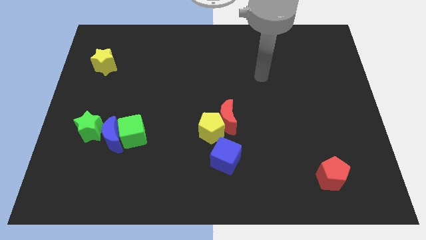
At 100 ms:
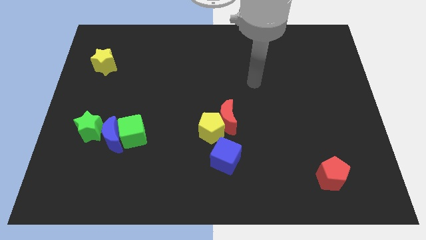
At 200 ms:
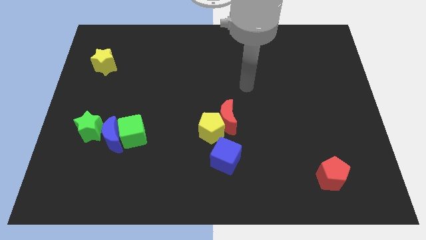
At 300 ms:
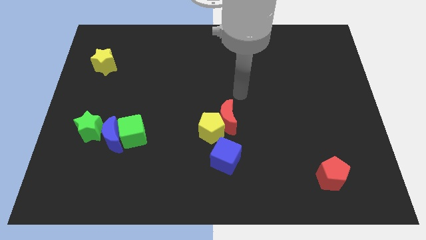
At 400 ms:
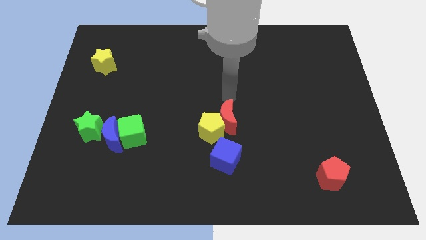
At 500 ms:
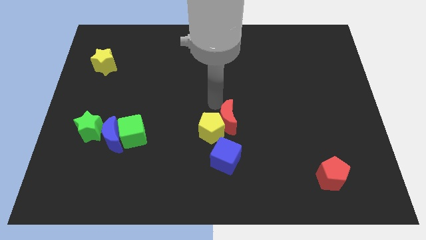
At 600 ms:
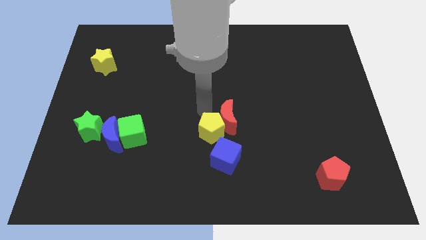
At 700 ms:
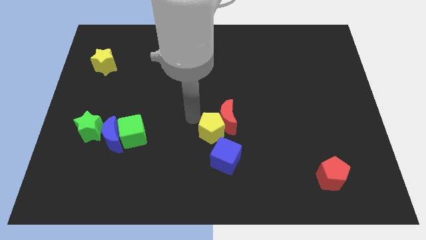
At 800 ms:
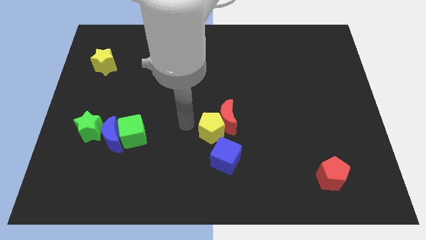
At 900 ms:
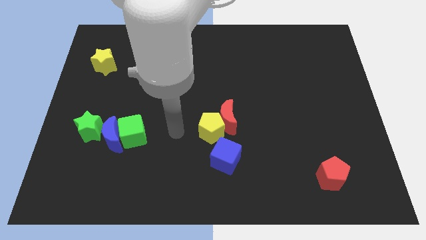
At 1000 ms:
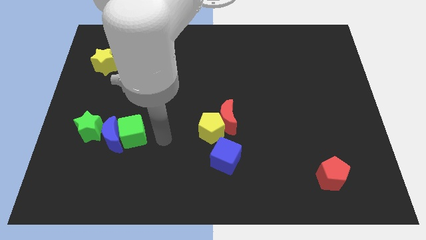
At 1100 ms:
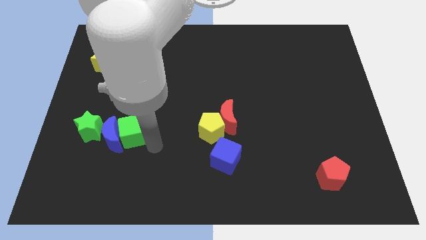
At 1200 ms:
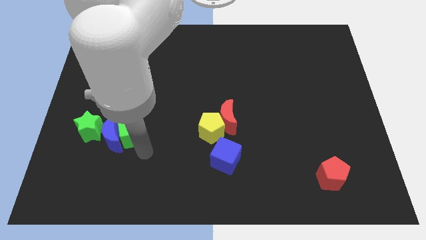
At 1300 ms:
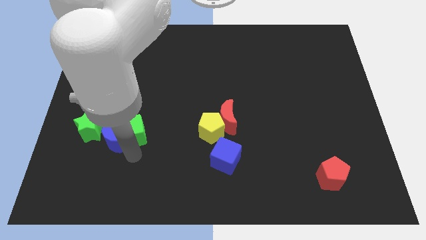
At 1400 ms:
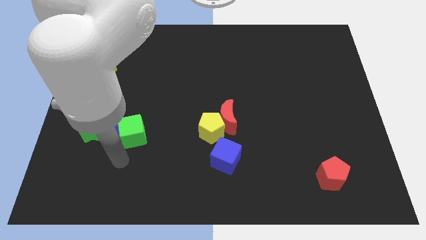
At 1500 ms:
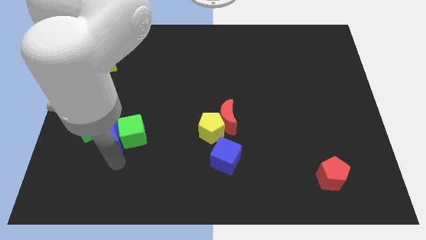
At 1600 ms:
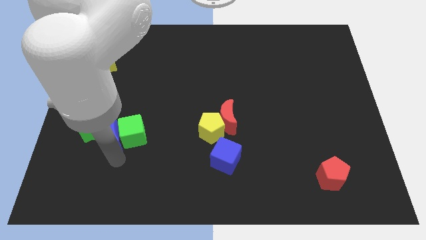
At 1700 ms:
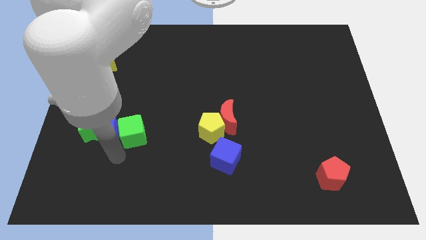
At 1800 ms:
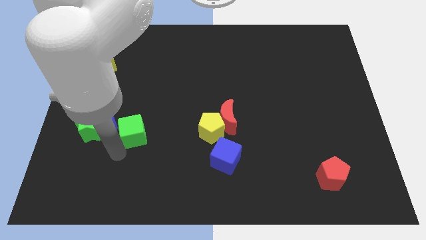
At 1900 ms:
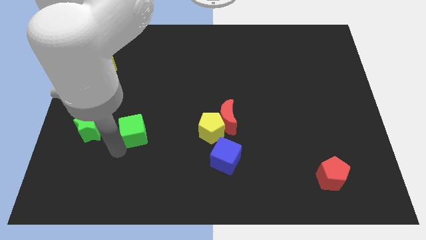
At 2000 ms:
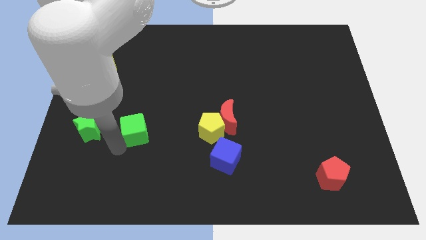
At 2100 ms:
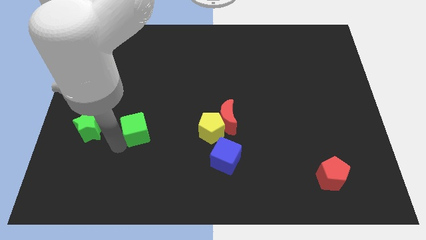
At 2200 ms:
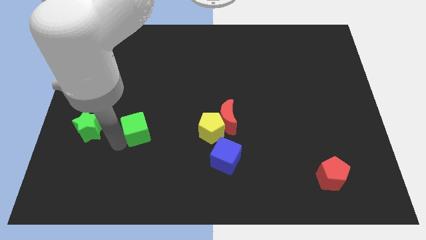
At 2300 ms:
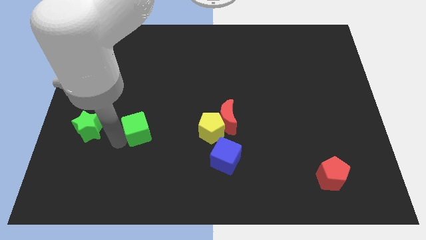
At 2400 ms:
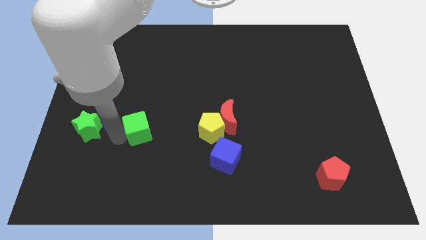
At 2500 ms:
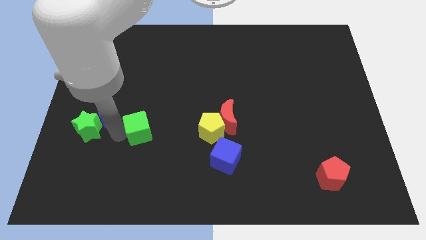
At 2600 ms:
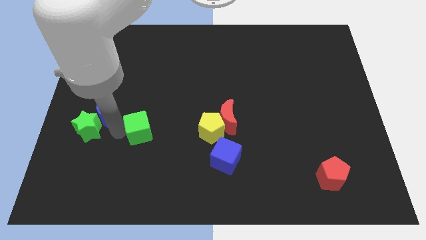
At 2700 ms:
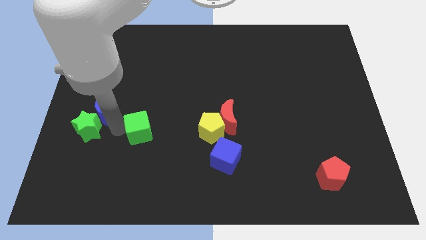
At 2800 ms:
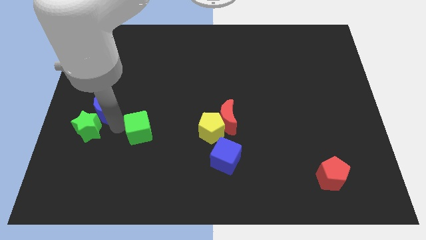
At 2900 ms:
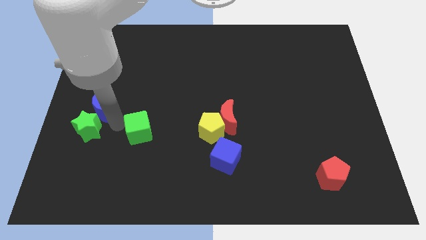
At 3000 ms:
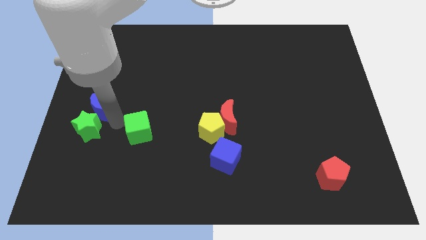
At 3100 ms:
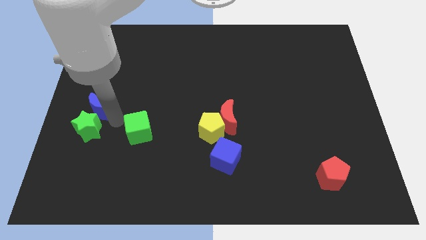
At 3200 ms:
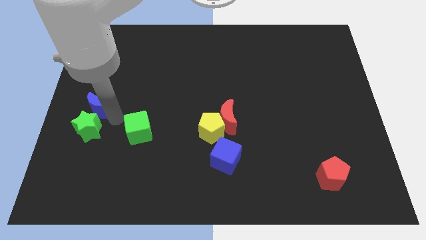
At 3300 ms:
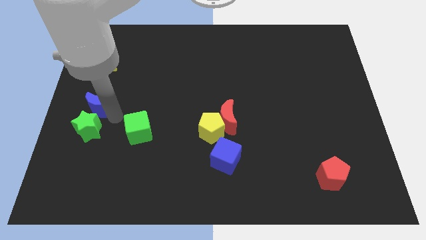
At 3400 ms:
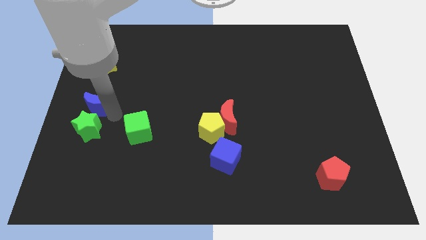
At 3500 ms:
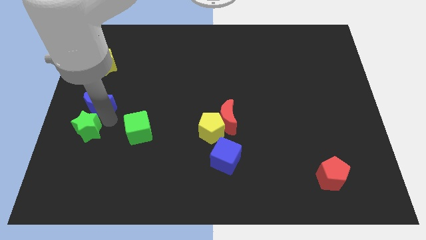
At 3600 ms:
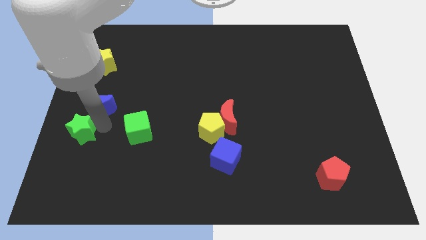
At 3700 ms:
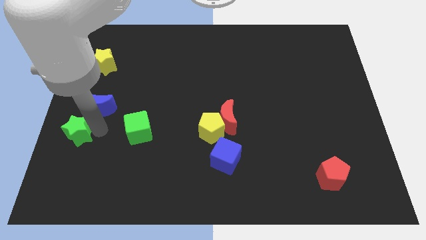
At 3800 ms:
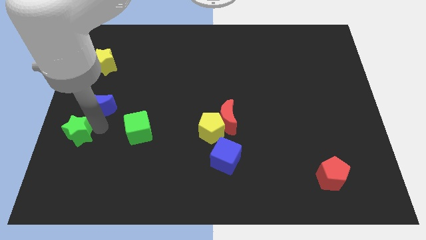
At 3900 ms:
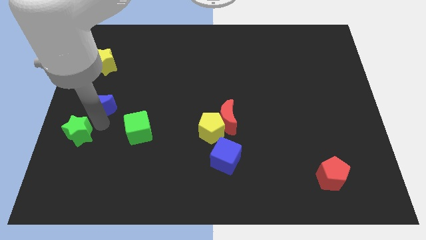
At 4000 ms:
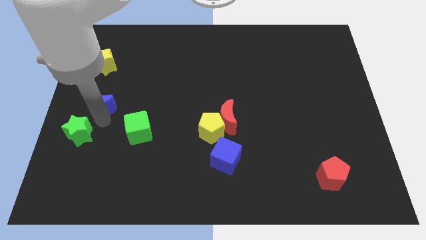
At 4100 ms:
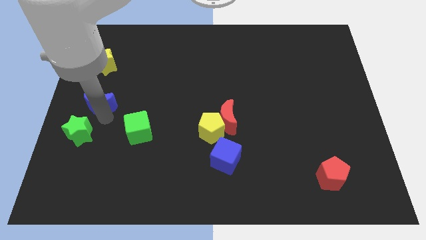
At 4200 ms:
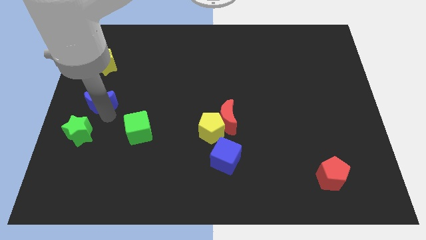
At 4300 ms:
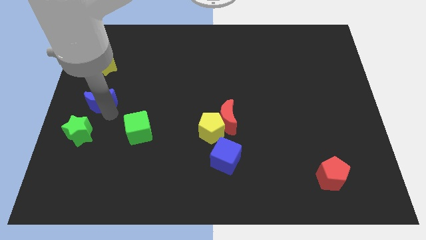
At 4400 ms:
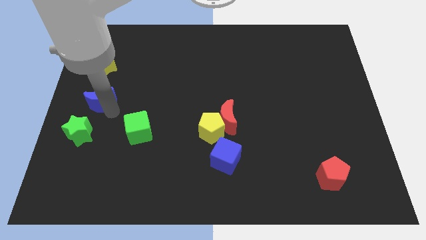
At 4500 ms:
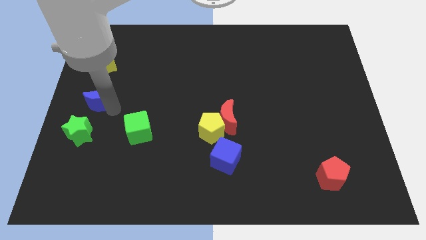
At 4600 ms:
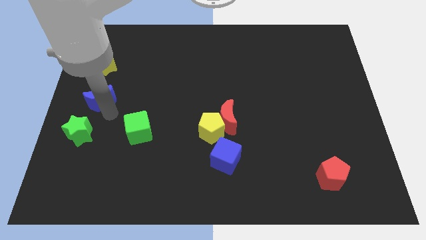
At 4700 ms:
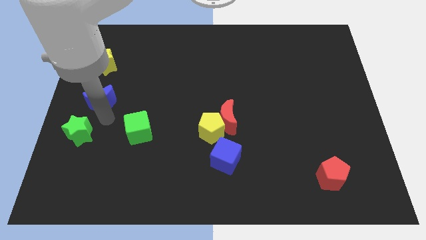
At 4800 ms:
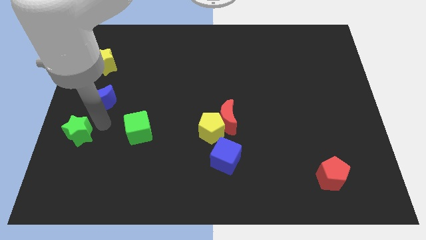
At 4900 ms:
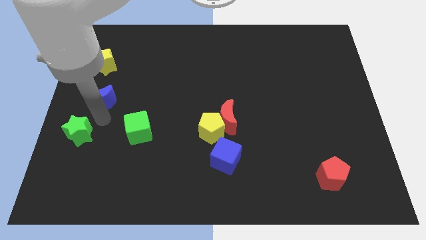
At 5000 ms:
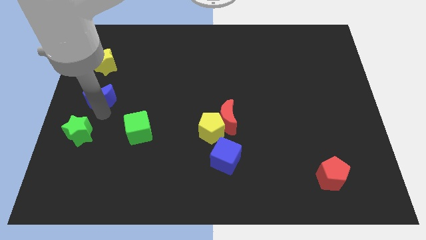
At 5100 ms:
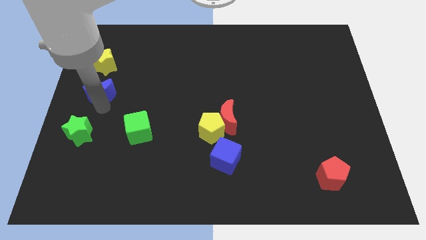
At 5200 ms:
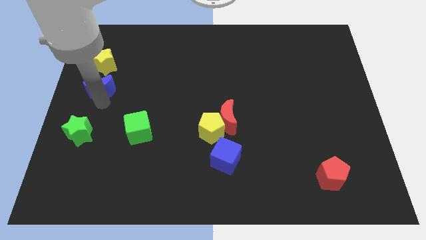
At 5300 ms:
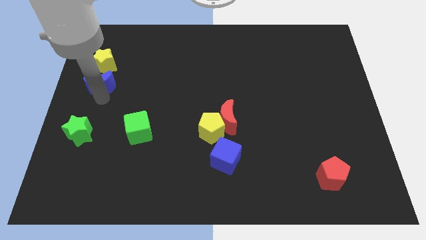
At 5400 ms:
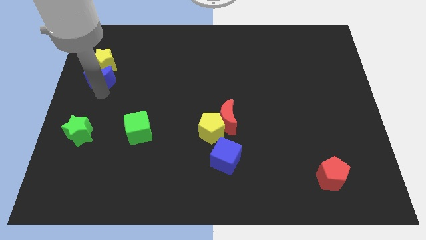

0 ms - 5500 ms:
move the blue moon towards the yellow star

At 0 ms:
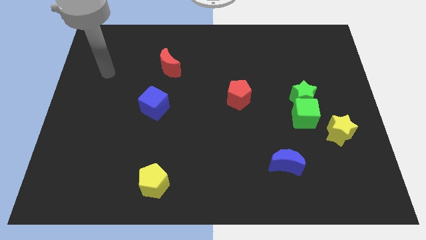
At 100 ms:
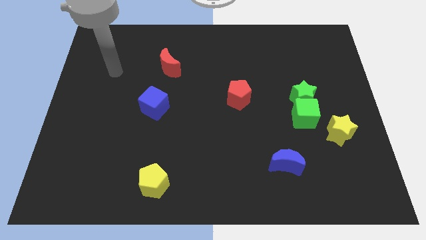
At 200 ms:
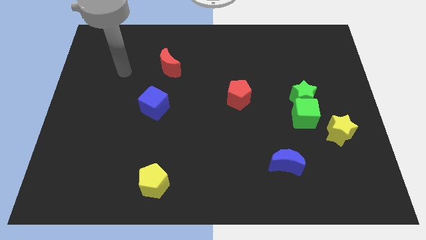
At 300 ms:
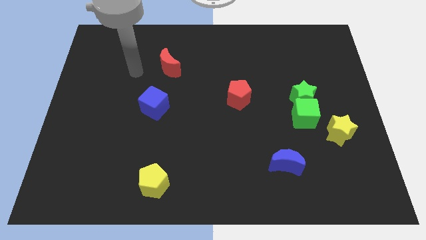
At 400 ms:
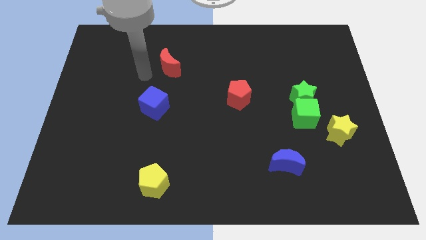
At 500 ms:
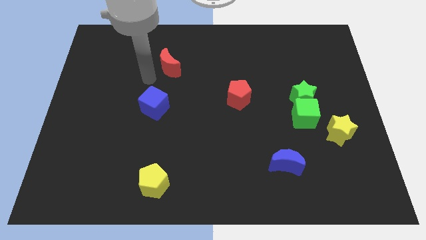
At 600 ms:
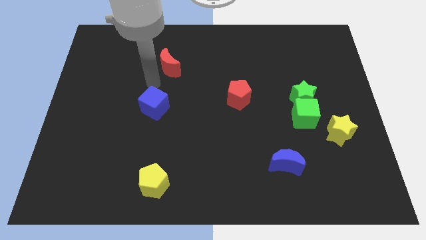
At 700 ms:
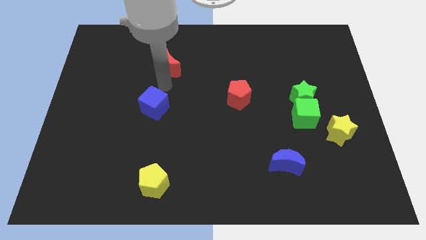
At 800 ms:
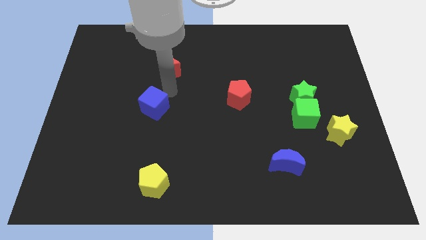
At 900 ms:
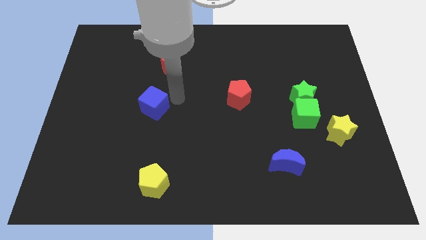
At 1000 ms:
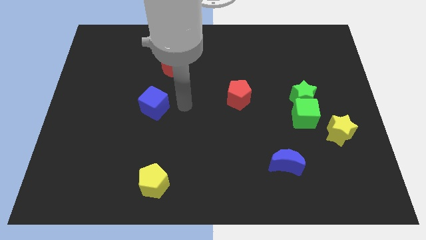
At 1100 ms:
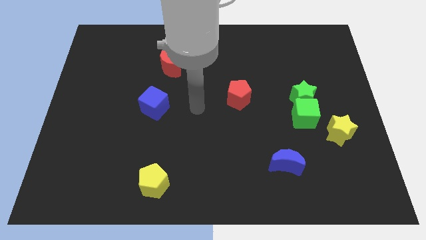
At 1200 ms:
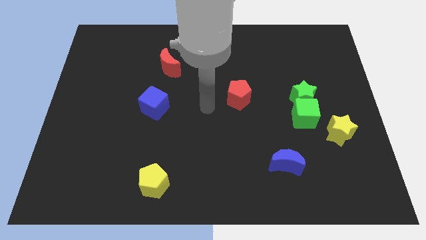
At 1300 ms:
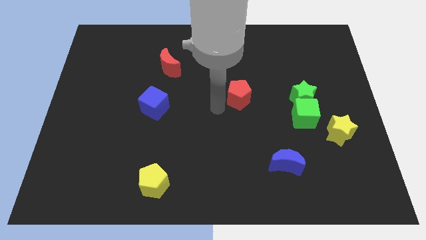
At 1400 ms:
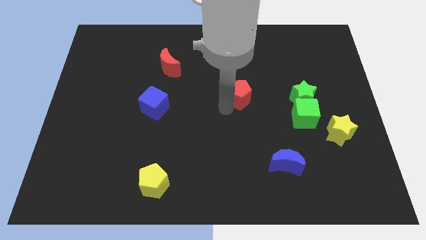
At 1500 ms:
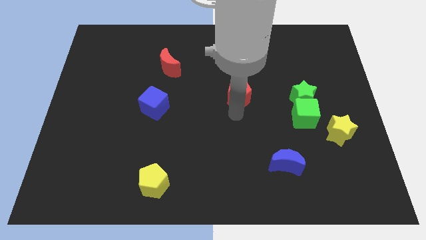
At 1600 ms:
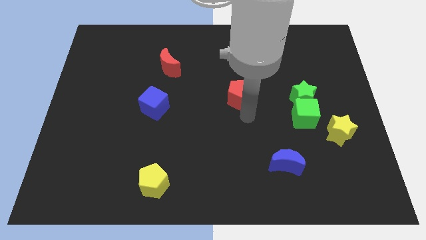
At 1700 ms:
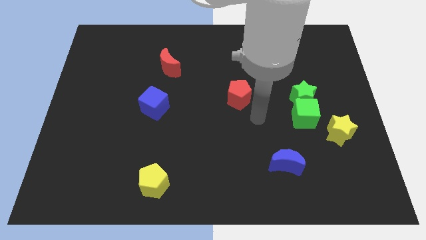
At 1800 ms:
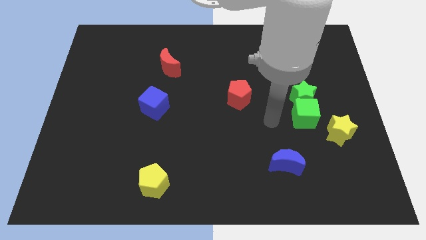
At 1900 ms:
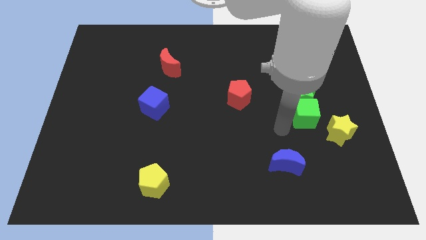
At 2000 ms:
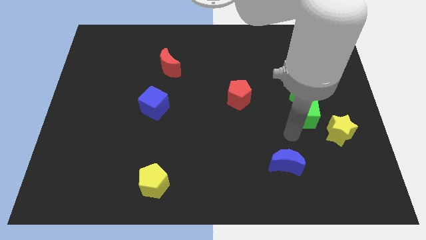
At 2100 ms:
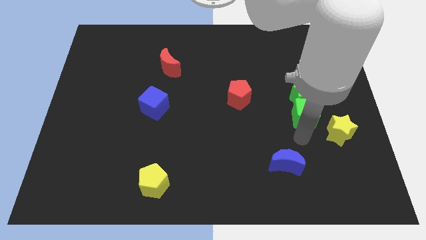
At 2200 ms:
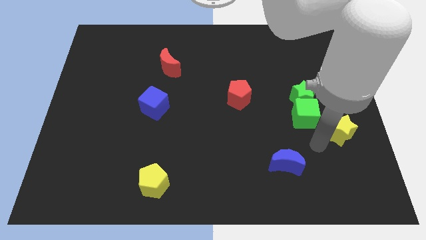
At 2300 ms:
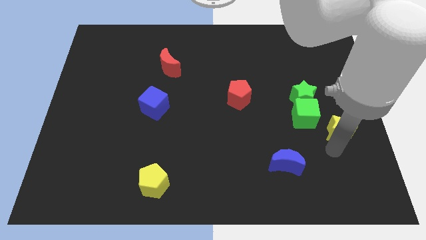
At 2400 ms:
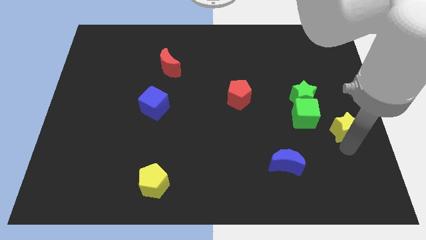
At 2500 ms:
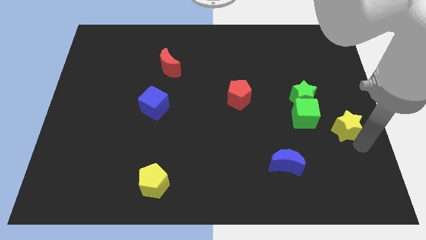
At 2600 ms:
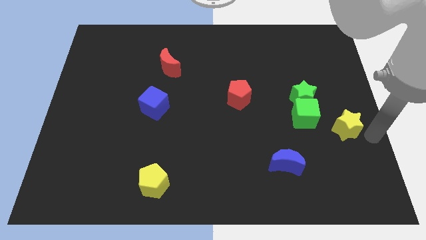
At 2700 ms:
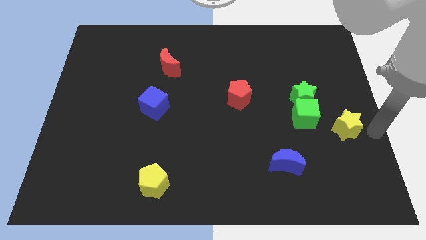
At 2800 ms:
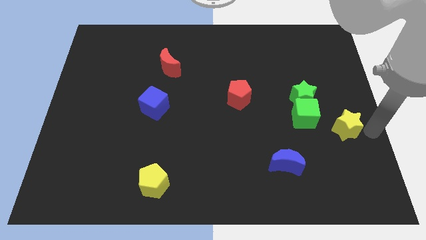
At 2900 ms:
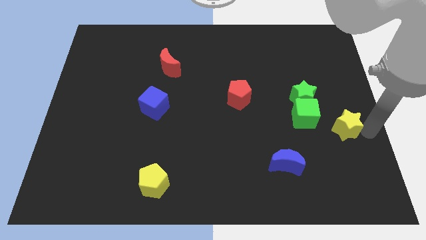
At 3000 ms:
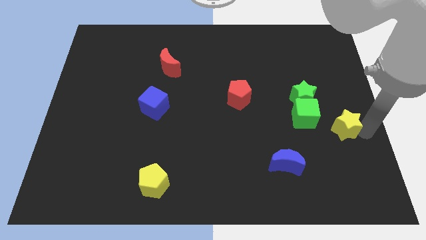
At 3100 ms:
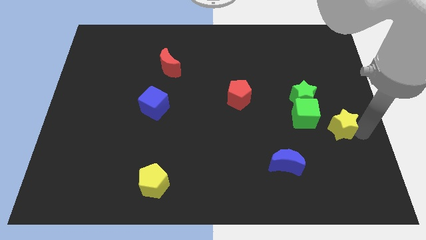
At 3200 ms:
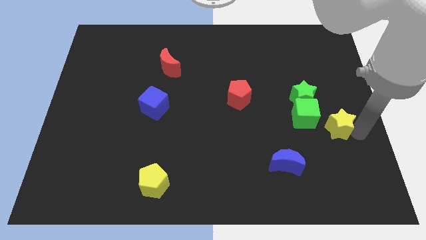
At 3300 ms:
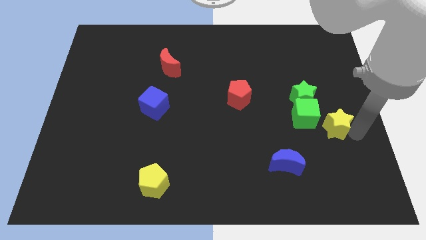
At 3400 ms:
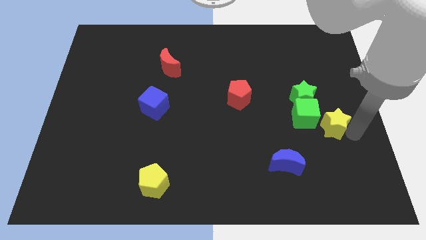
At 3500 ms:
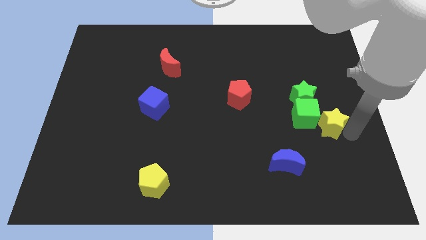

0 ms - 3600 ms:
put the yellow star next to the green cube
